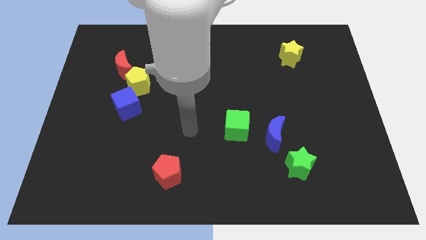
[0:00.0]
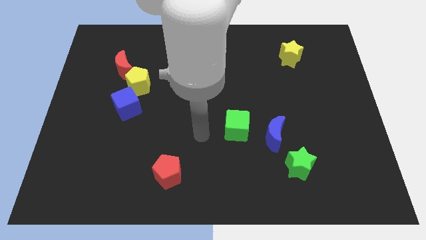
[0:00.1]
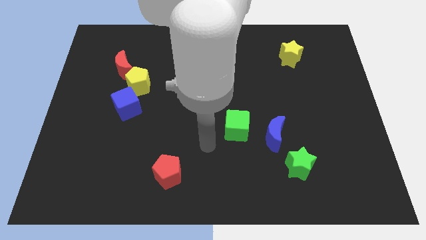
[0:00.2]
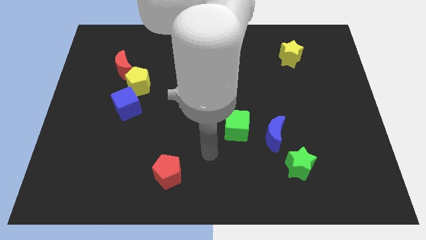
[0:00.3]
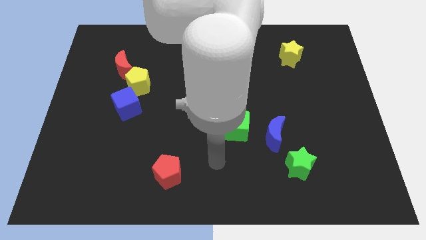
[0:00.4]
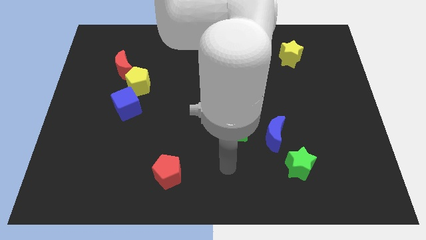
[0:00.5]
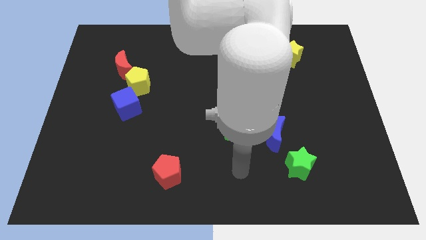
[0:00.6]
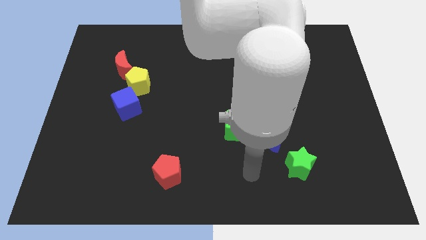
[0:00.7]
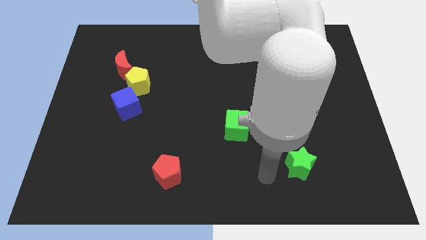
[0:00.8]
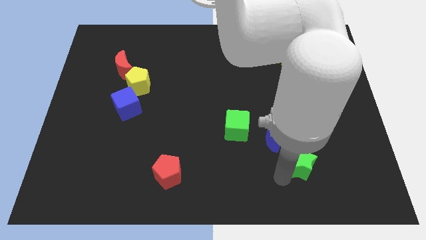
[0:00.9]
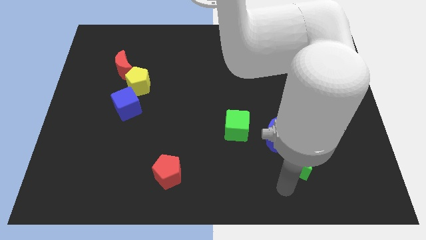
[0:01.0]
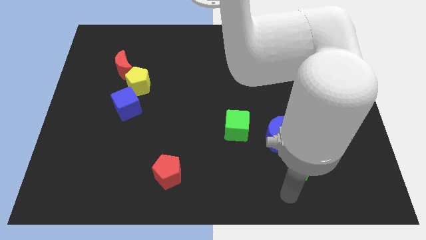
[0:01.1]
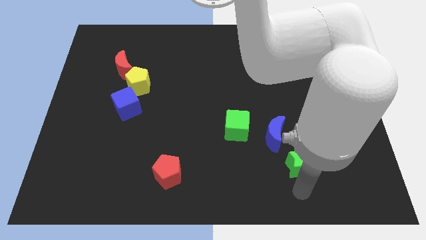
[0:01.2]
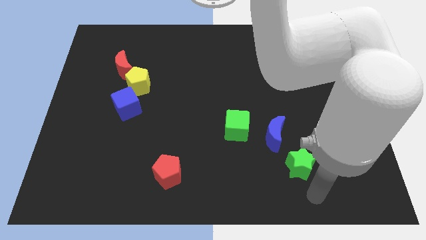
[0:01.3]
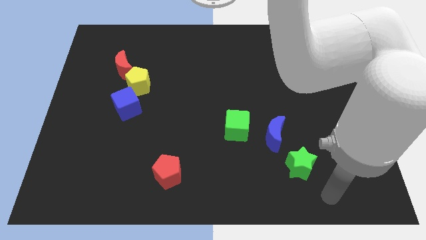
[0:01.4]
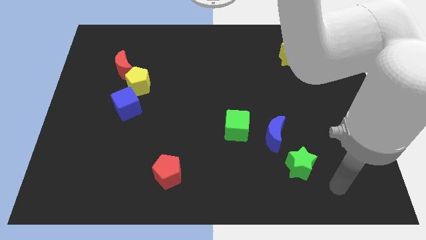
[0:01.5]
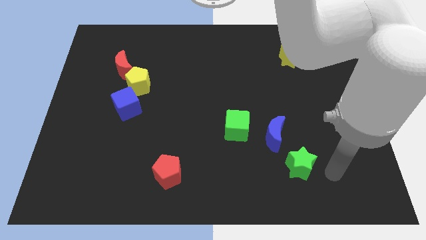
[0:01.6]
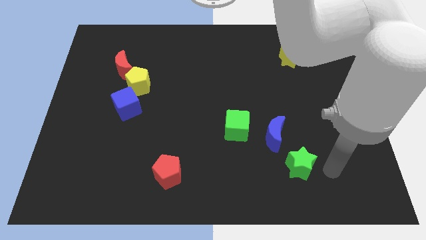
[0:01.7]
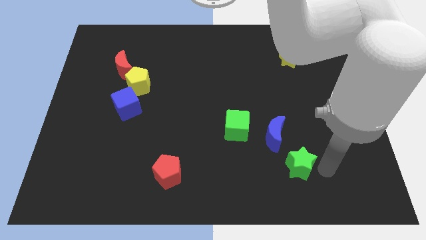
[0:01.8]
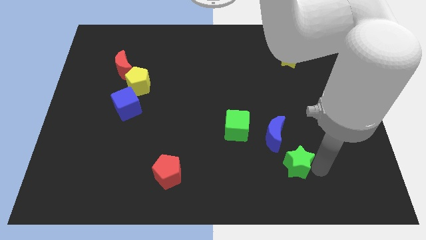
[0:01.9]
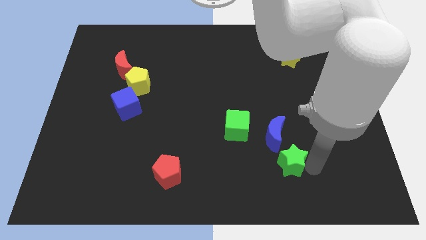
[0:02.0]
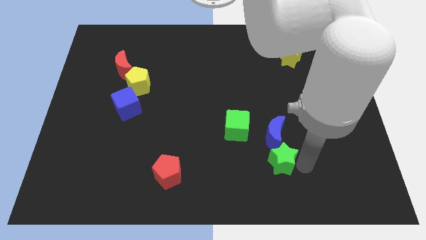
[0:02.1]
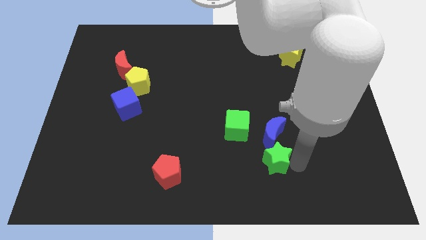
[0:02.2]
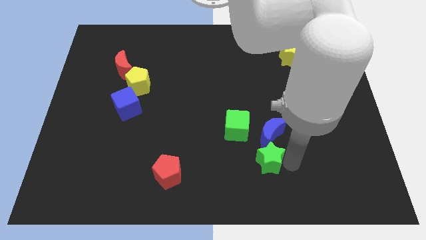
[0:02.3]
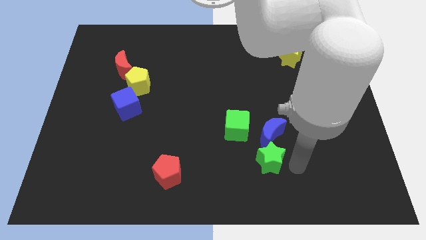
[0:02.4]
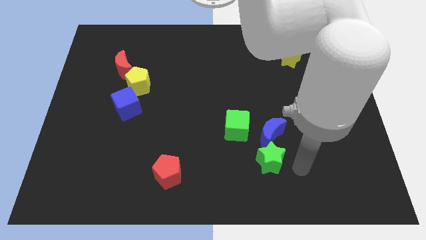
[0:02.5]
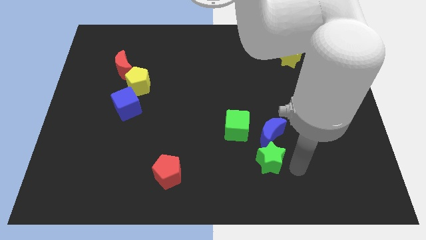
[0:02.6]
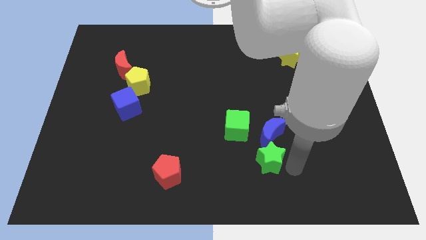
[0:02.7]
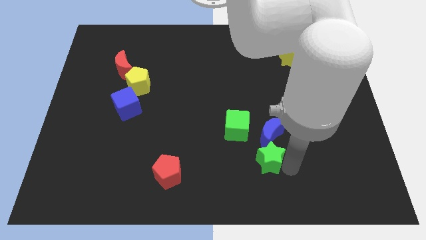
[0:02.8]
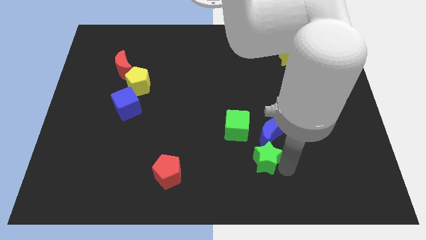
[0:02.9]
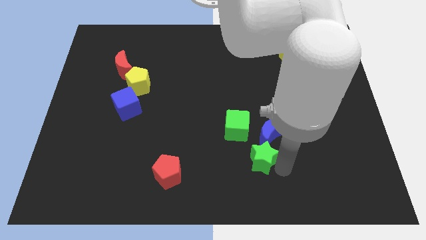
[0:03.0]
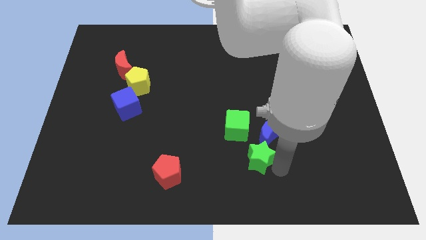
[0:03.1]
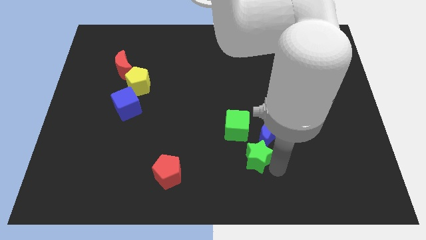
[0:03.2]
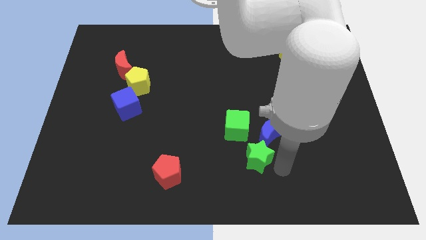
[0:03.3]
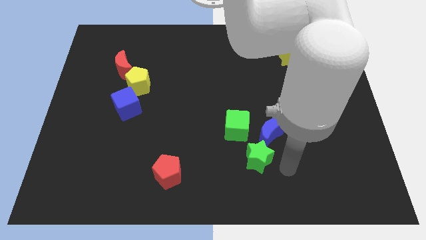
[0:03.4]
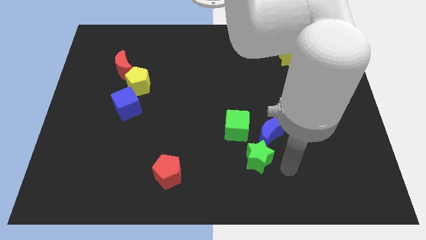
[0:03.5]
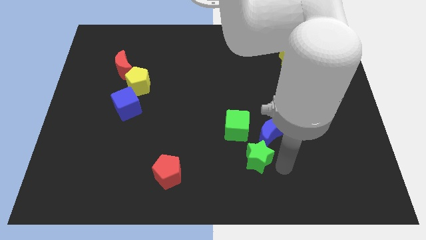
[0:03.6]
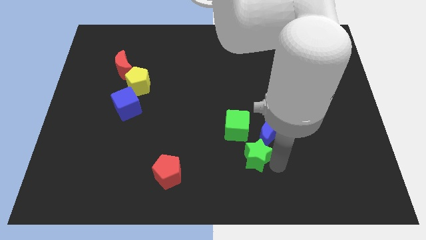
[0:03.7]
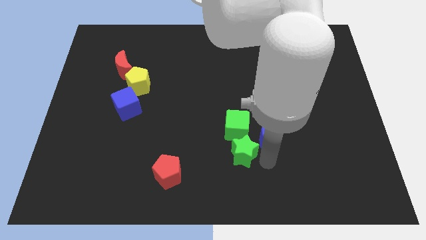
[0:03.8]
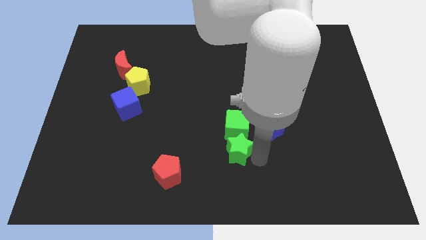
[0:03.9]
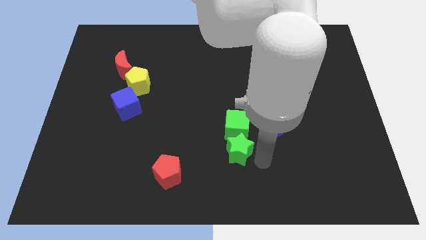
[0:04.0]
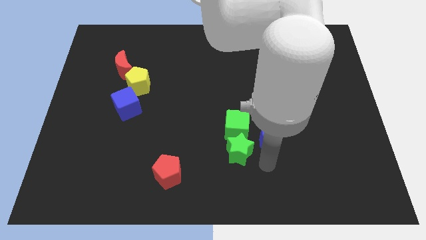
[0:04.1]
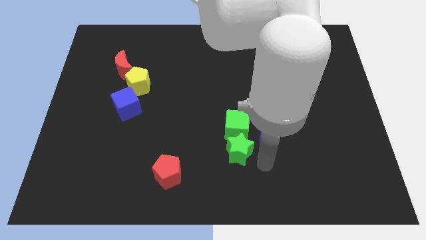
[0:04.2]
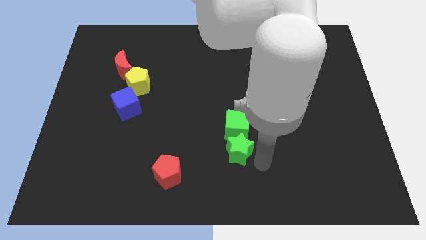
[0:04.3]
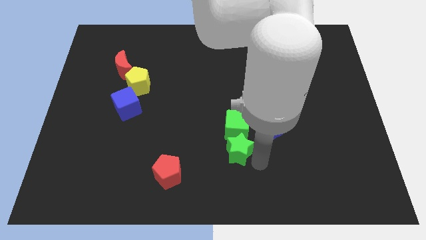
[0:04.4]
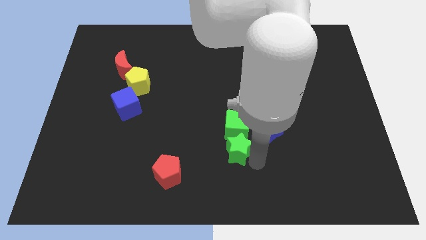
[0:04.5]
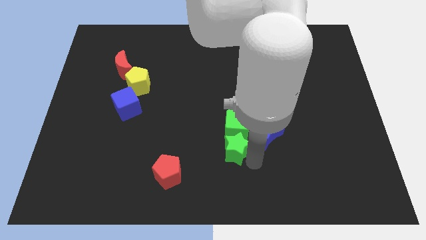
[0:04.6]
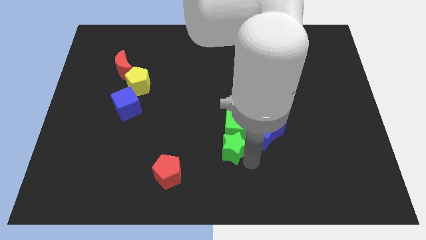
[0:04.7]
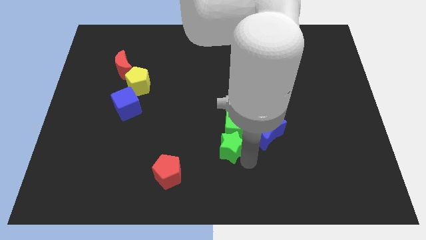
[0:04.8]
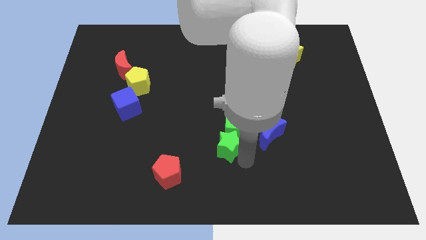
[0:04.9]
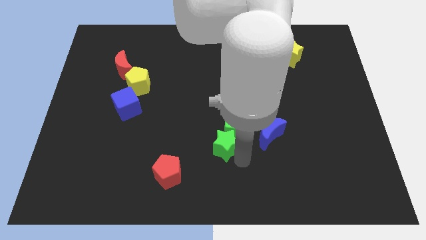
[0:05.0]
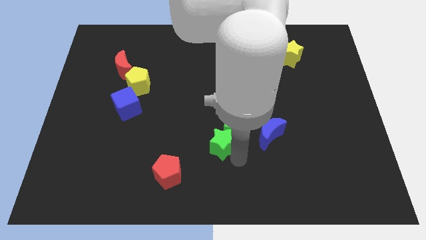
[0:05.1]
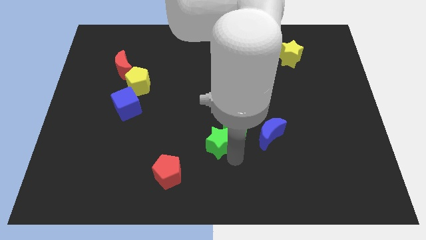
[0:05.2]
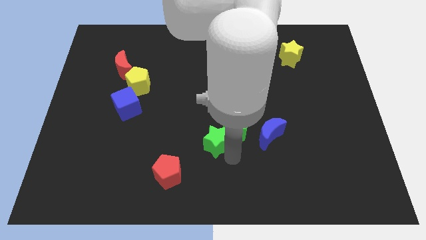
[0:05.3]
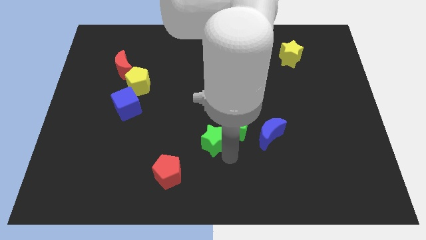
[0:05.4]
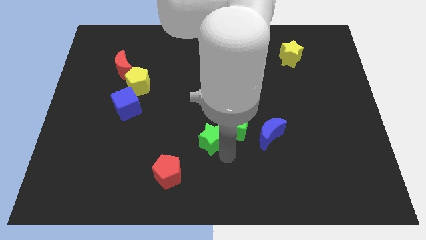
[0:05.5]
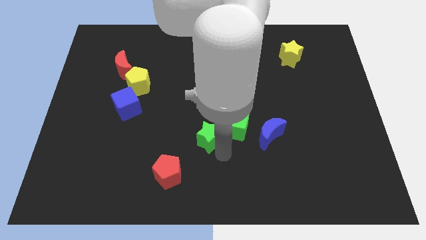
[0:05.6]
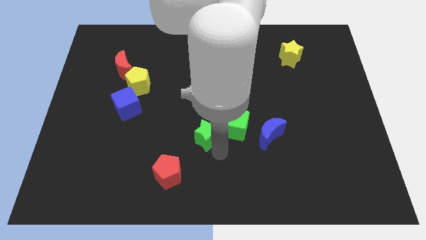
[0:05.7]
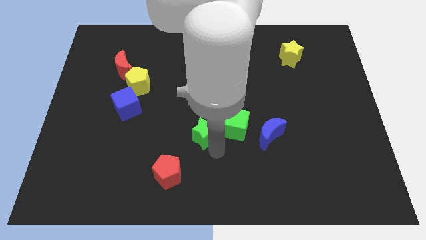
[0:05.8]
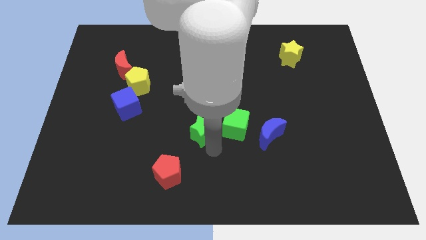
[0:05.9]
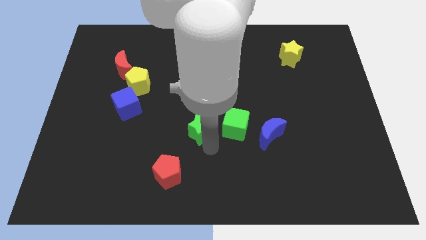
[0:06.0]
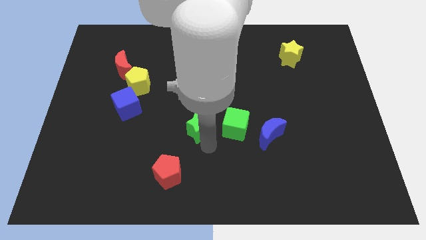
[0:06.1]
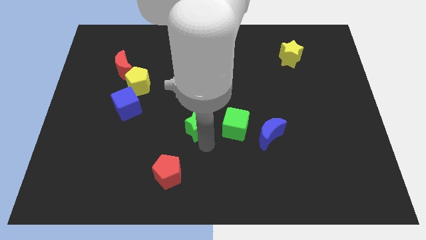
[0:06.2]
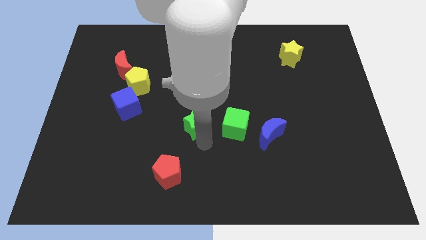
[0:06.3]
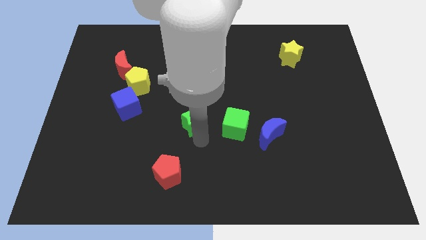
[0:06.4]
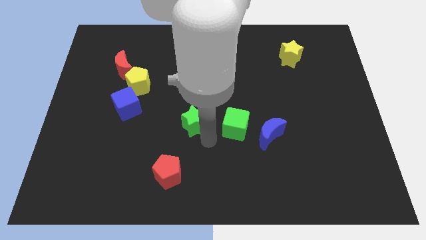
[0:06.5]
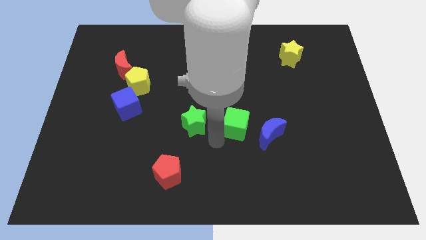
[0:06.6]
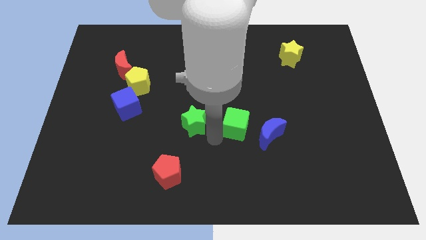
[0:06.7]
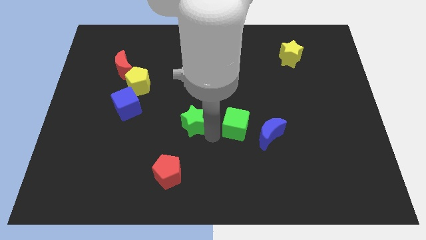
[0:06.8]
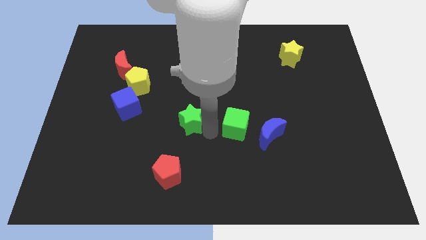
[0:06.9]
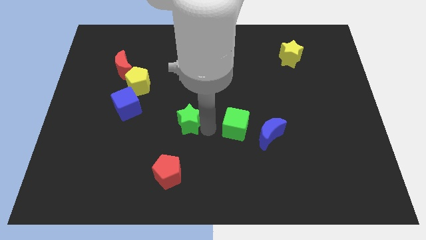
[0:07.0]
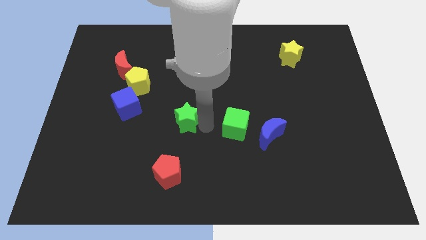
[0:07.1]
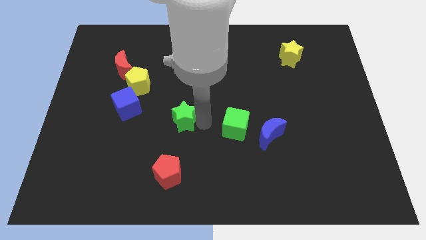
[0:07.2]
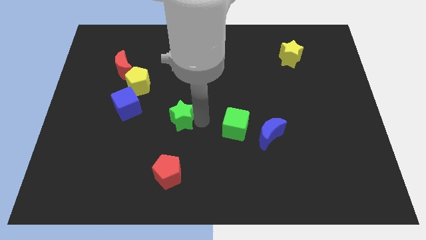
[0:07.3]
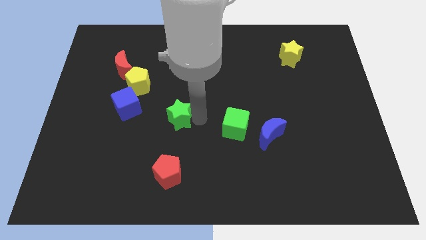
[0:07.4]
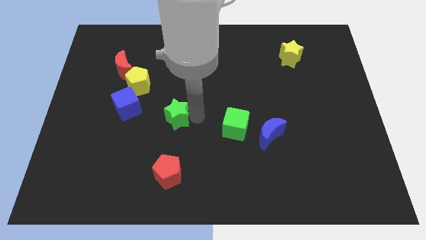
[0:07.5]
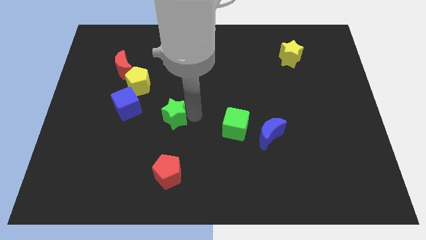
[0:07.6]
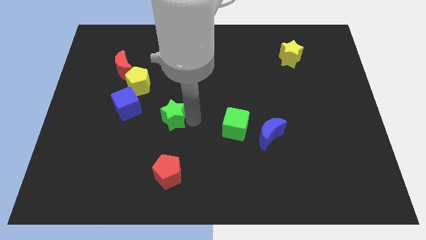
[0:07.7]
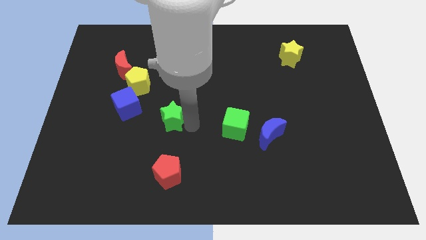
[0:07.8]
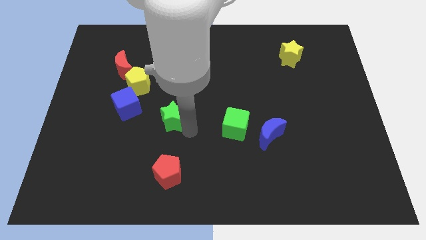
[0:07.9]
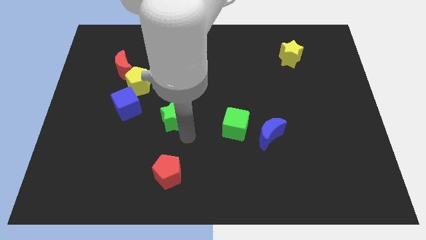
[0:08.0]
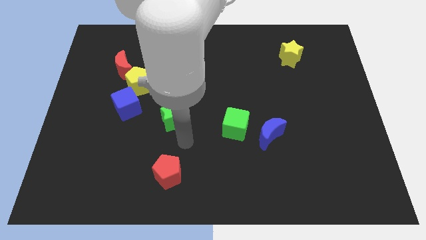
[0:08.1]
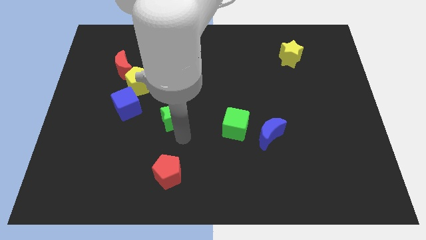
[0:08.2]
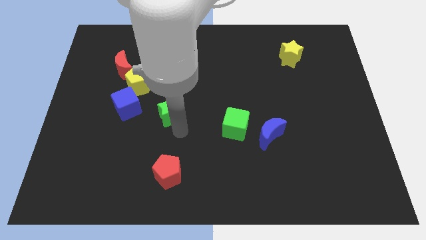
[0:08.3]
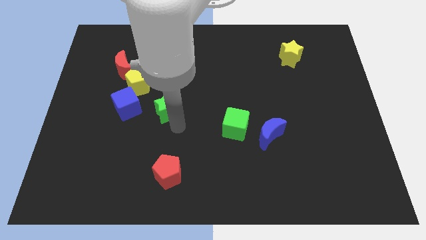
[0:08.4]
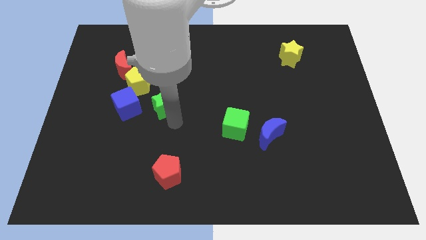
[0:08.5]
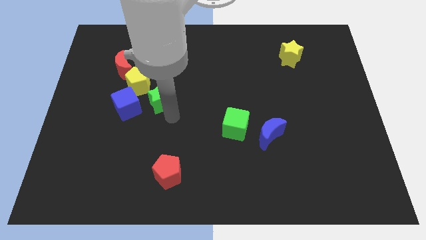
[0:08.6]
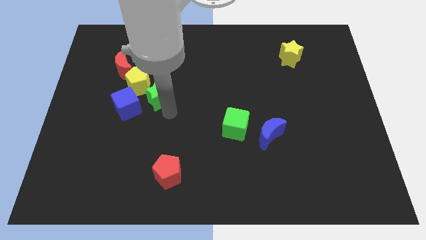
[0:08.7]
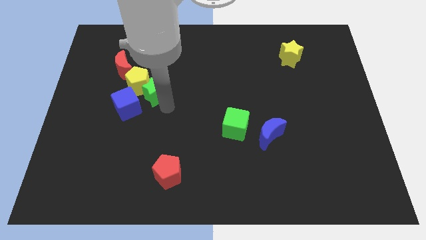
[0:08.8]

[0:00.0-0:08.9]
push the green star close to the yellow pentagon
